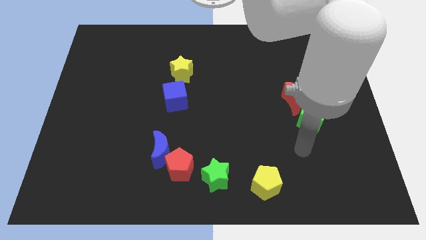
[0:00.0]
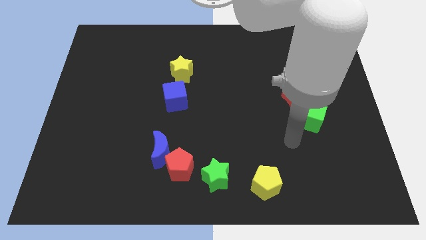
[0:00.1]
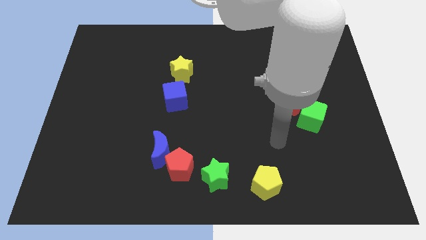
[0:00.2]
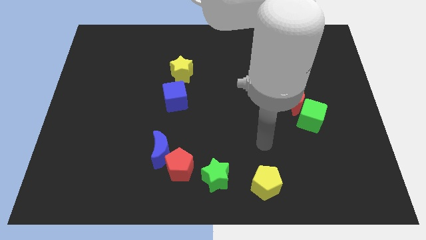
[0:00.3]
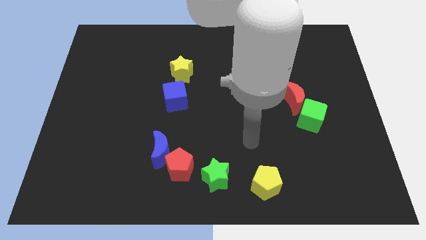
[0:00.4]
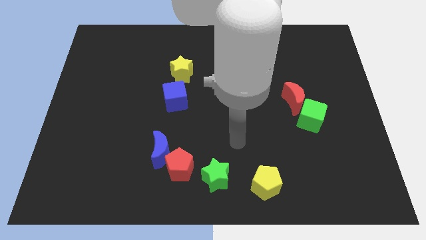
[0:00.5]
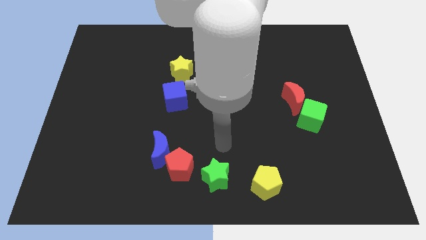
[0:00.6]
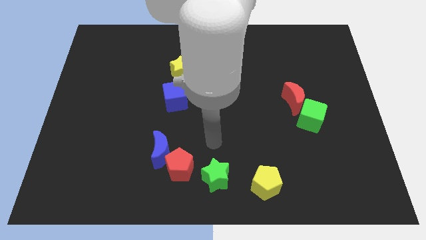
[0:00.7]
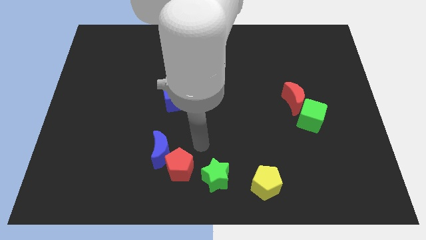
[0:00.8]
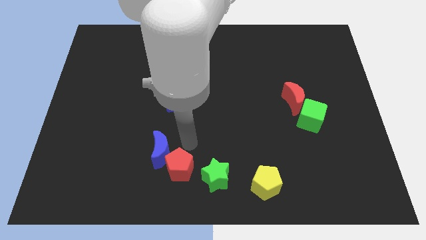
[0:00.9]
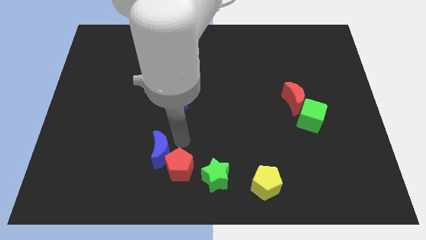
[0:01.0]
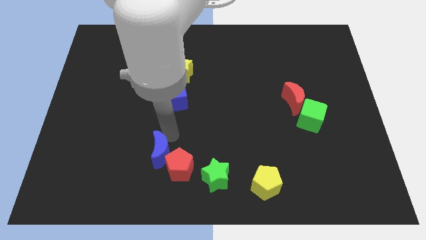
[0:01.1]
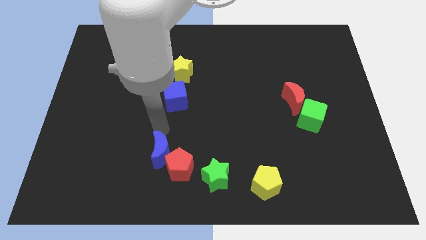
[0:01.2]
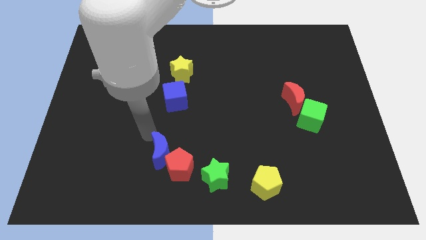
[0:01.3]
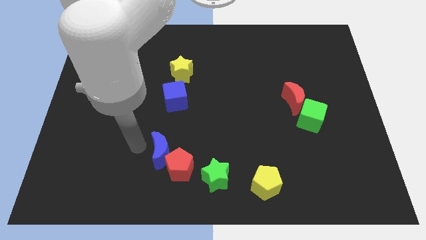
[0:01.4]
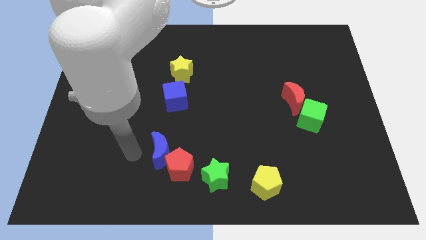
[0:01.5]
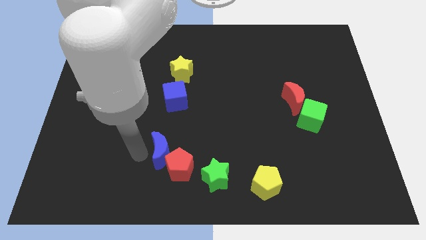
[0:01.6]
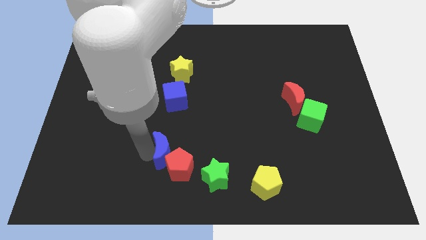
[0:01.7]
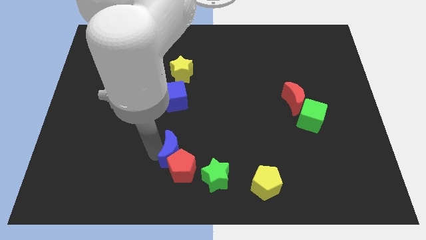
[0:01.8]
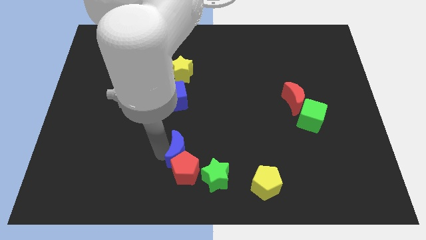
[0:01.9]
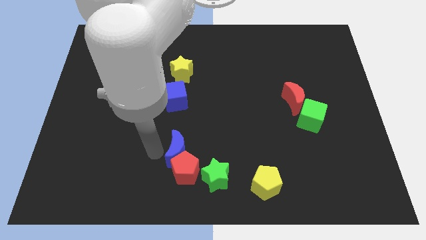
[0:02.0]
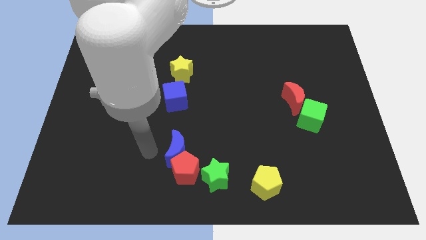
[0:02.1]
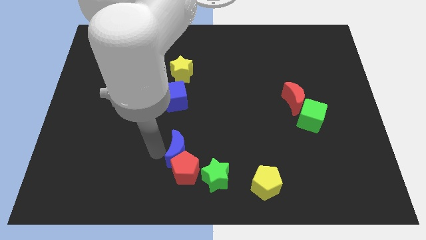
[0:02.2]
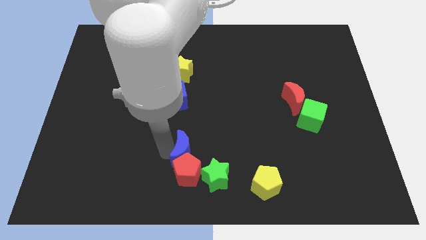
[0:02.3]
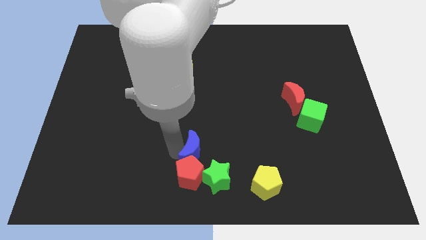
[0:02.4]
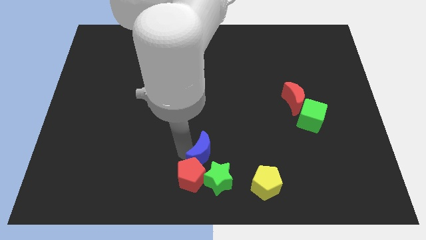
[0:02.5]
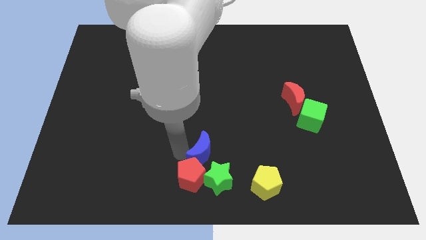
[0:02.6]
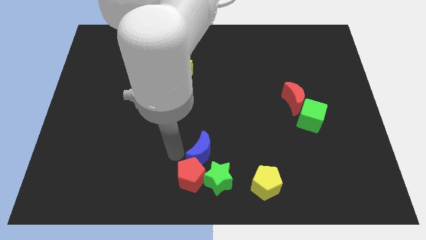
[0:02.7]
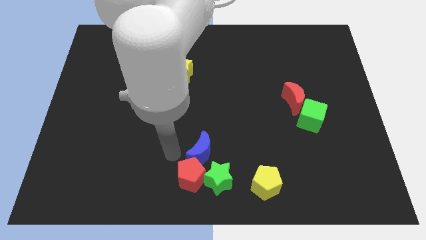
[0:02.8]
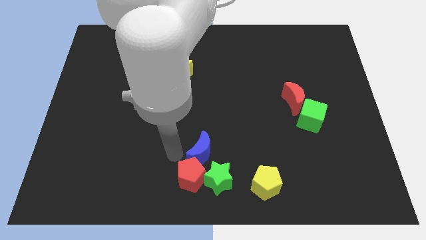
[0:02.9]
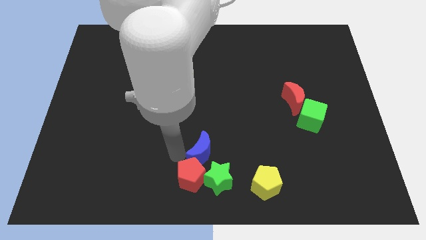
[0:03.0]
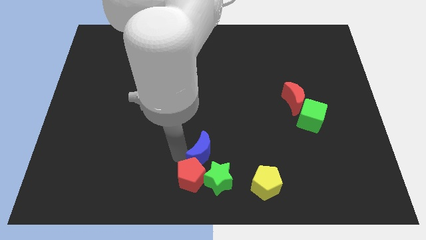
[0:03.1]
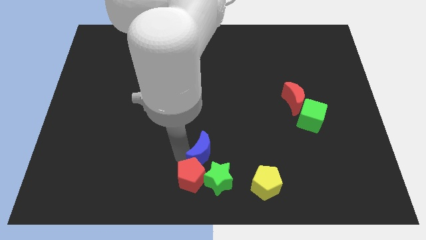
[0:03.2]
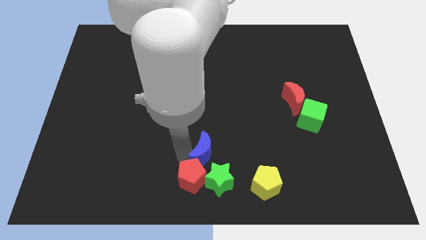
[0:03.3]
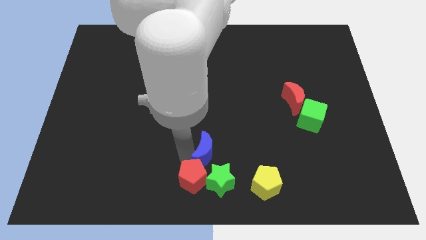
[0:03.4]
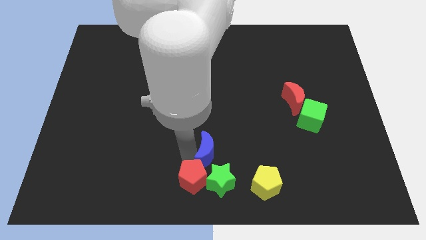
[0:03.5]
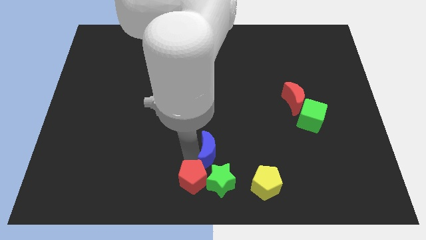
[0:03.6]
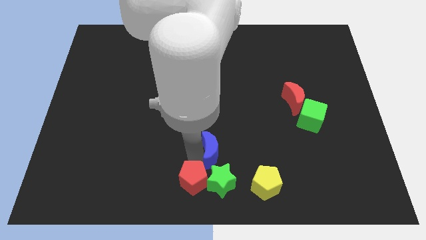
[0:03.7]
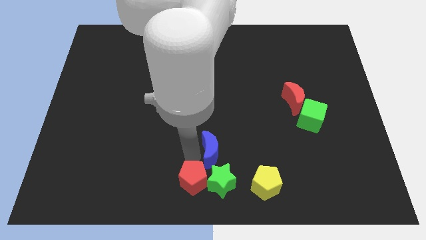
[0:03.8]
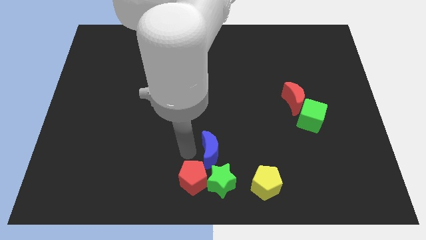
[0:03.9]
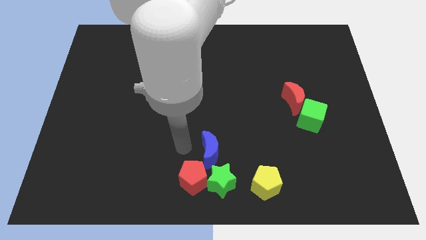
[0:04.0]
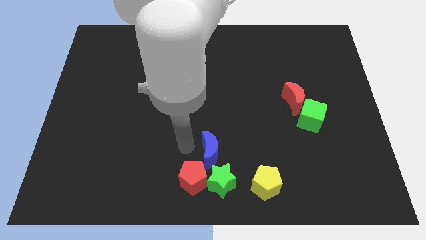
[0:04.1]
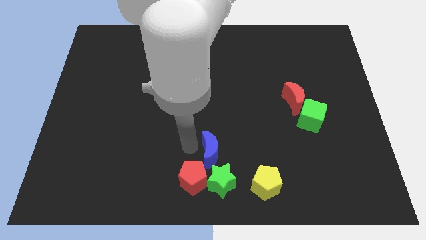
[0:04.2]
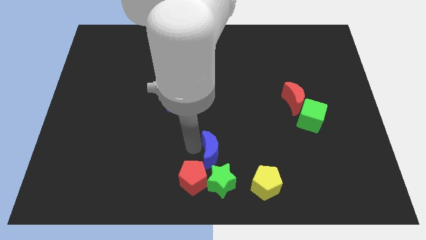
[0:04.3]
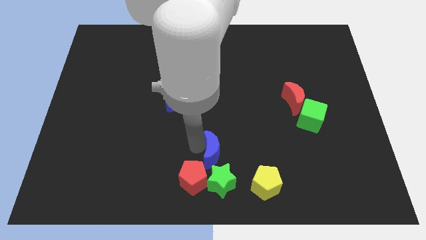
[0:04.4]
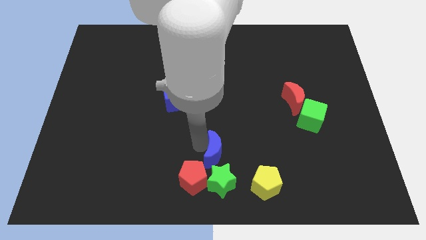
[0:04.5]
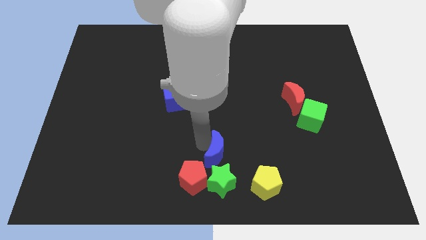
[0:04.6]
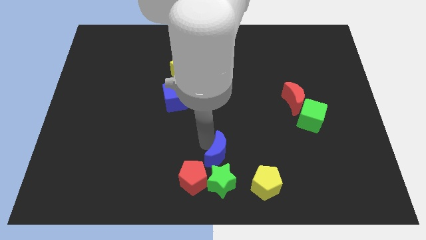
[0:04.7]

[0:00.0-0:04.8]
slide the blue moon to the top right side of the green star

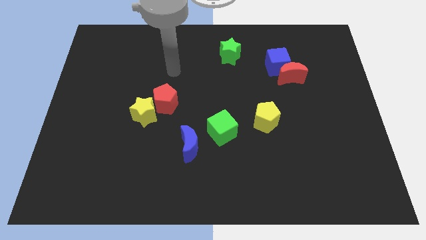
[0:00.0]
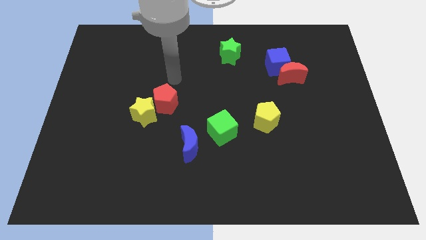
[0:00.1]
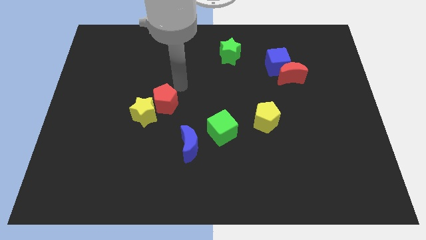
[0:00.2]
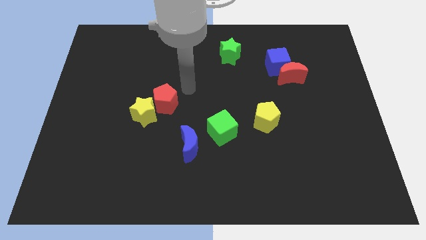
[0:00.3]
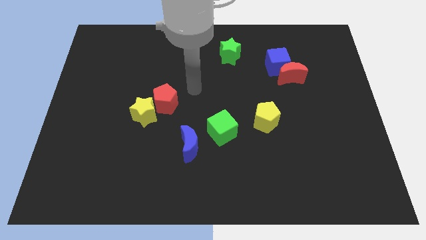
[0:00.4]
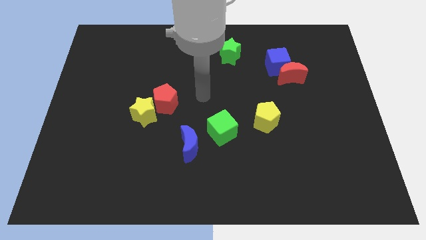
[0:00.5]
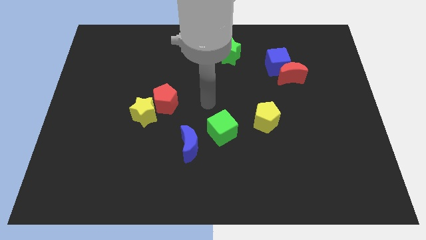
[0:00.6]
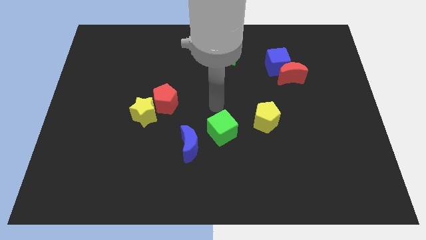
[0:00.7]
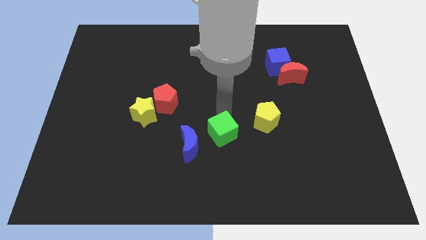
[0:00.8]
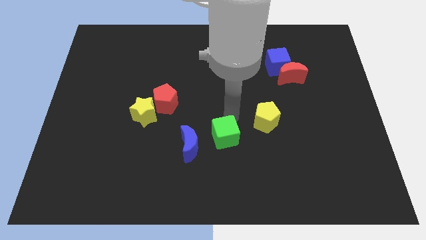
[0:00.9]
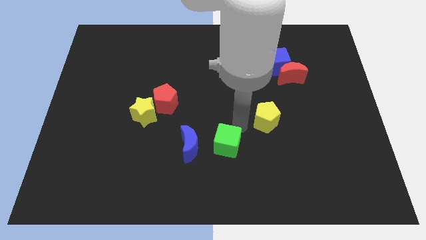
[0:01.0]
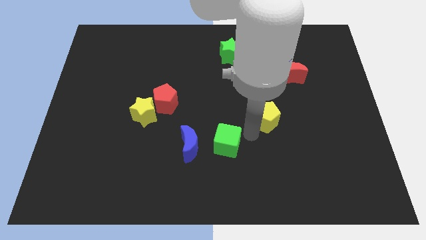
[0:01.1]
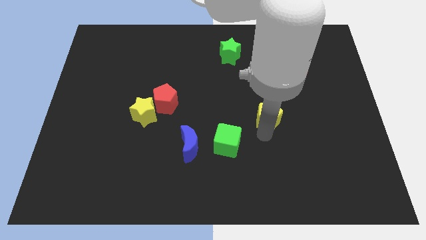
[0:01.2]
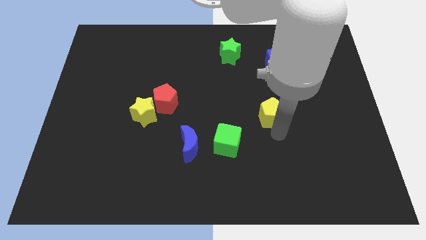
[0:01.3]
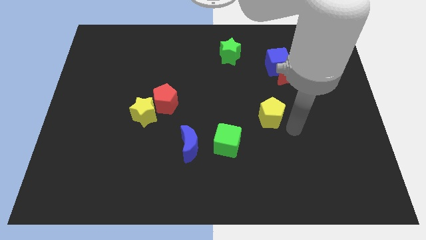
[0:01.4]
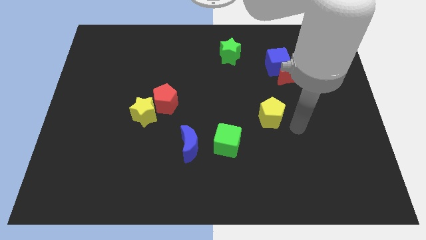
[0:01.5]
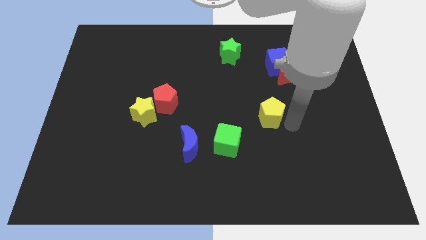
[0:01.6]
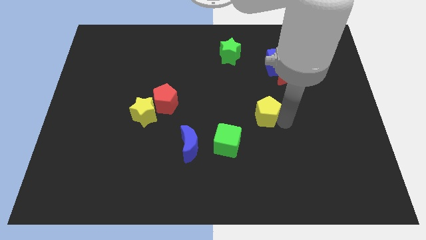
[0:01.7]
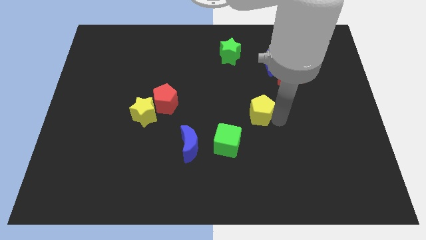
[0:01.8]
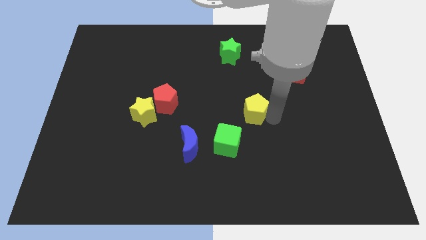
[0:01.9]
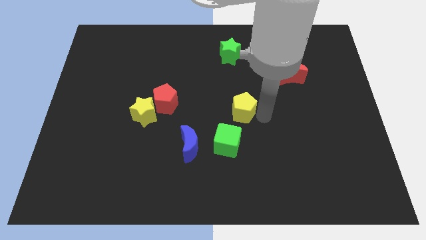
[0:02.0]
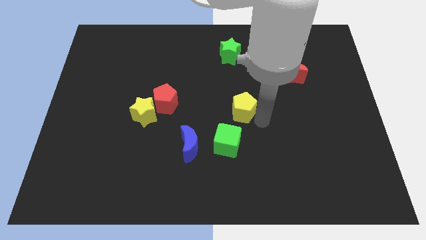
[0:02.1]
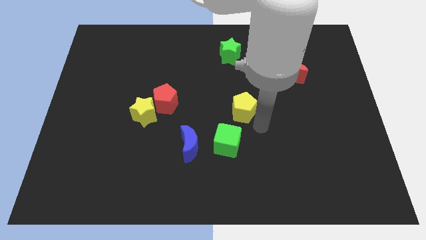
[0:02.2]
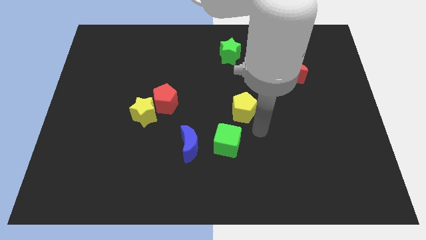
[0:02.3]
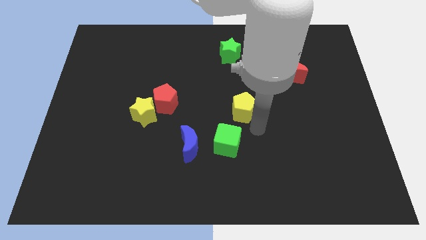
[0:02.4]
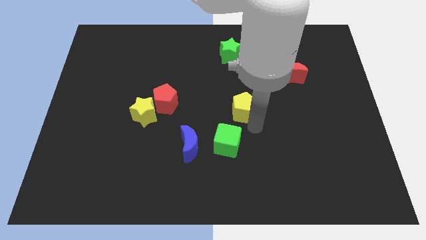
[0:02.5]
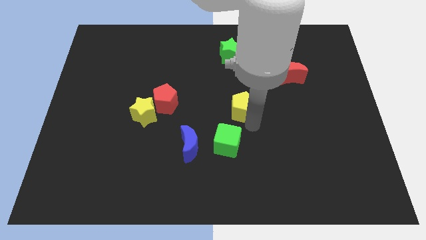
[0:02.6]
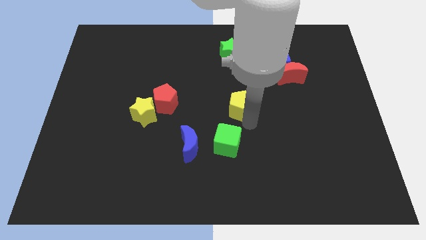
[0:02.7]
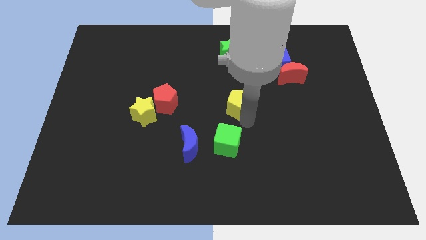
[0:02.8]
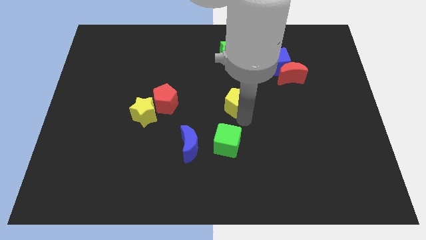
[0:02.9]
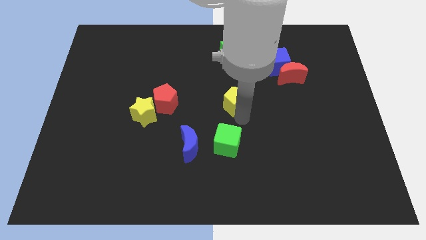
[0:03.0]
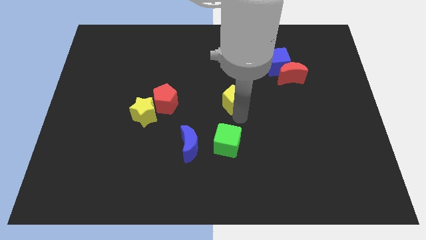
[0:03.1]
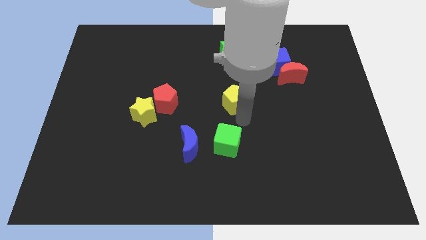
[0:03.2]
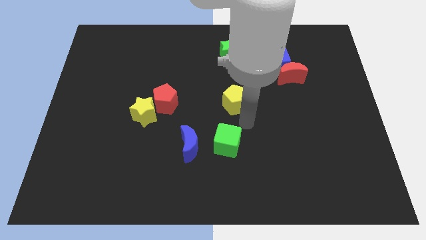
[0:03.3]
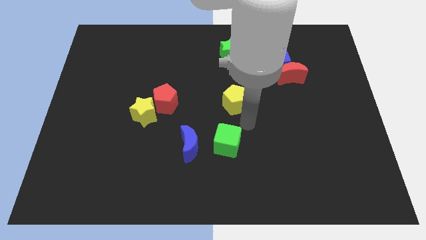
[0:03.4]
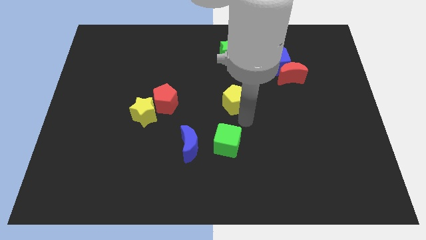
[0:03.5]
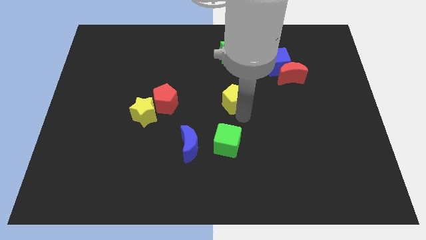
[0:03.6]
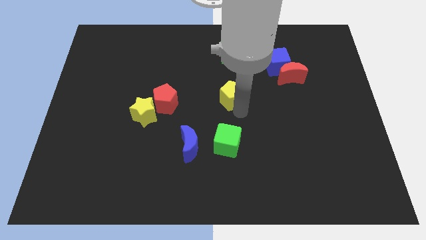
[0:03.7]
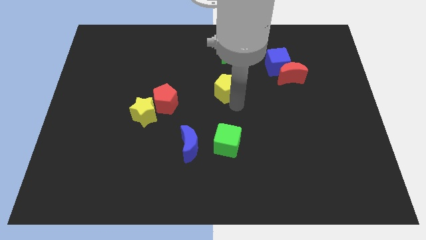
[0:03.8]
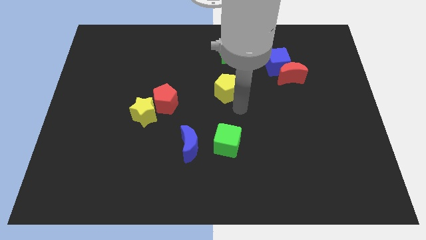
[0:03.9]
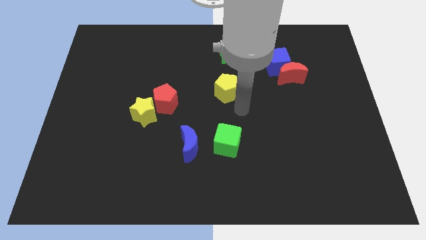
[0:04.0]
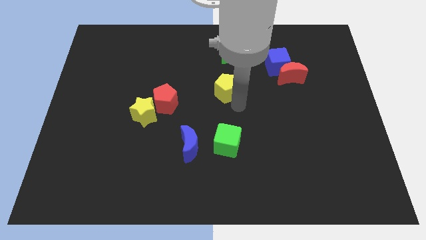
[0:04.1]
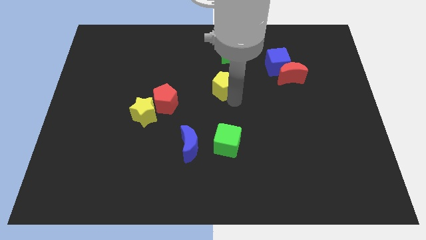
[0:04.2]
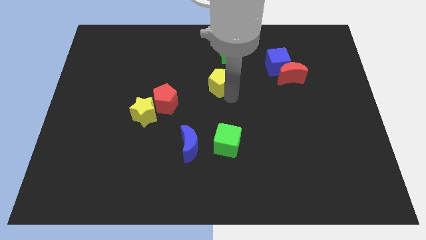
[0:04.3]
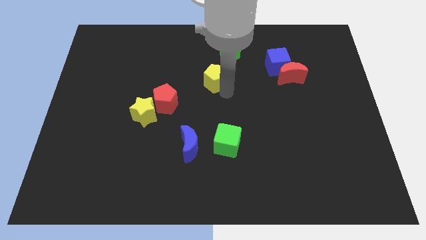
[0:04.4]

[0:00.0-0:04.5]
slide the yellow pentagon to the bottom left side of the green star
